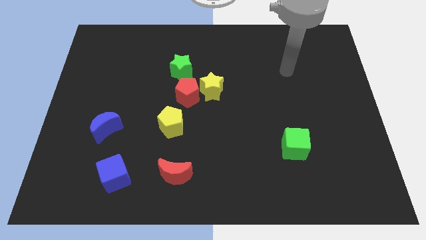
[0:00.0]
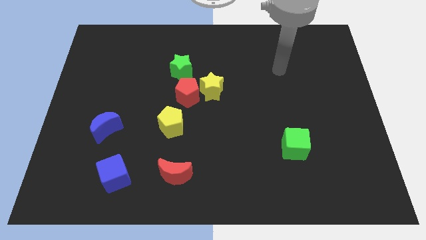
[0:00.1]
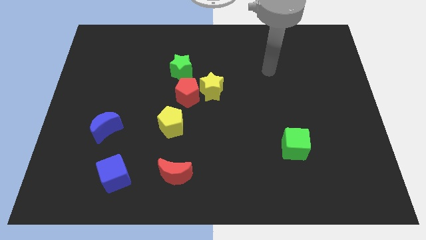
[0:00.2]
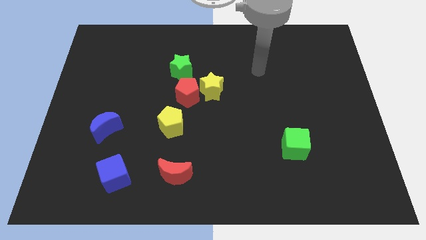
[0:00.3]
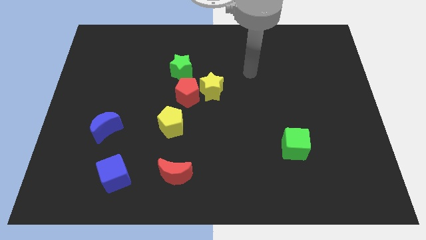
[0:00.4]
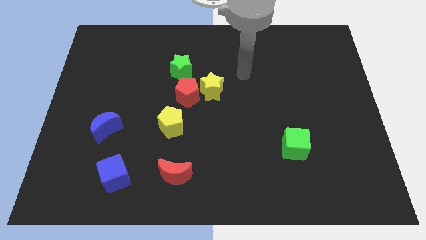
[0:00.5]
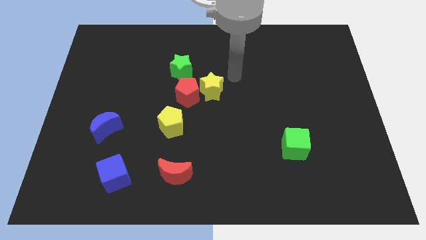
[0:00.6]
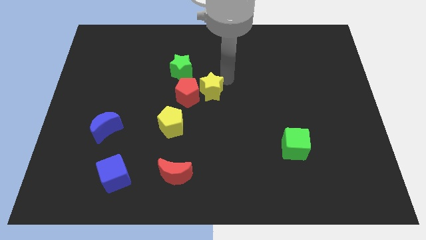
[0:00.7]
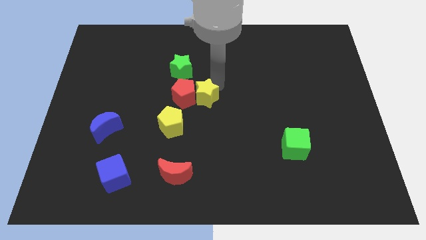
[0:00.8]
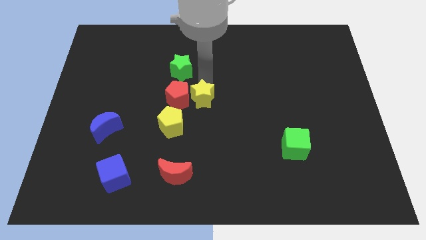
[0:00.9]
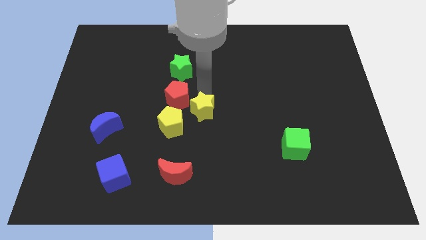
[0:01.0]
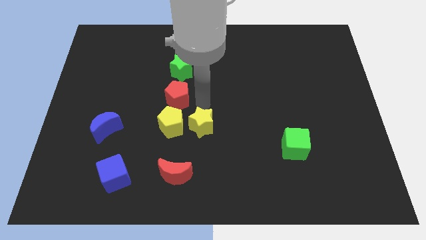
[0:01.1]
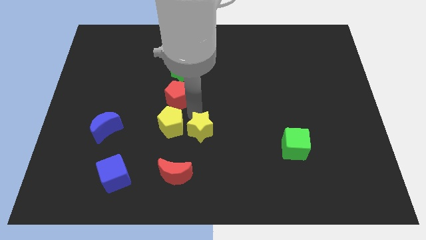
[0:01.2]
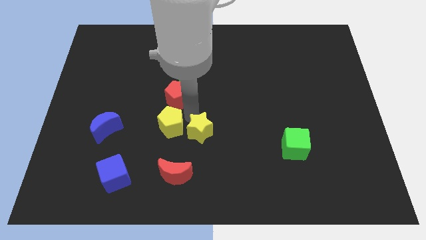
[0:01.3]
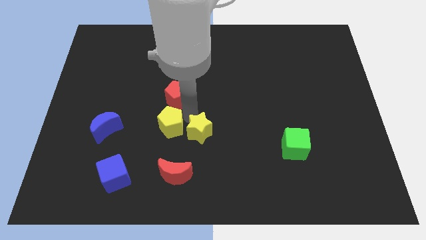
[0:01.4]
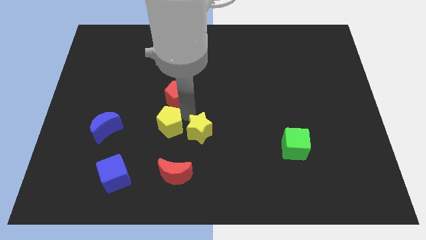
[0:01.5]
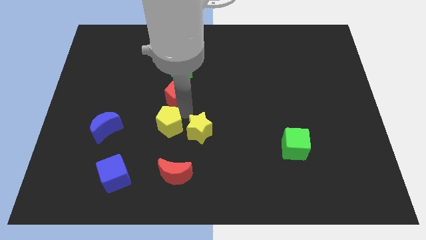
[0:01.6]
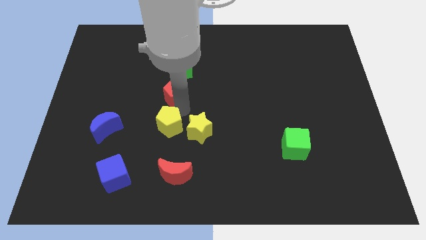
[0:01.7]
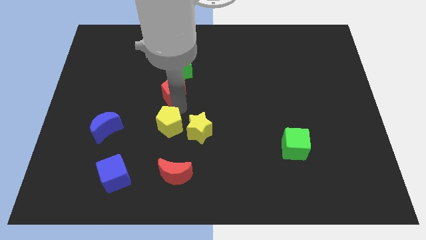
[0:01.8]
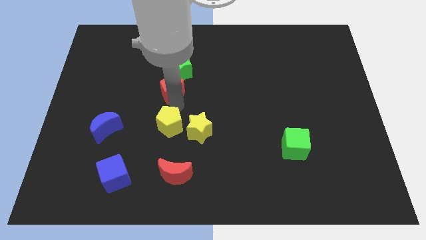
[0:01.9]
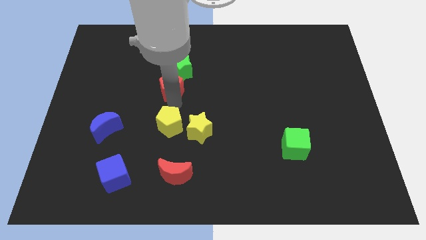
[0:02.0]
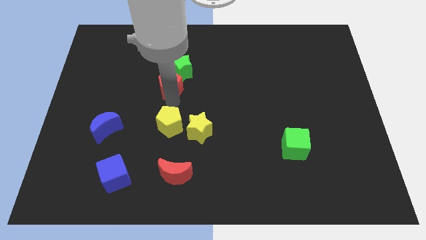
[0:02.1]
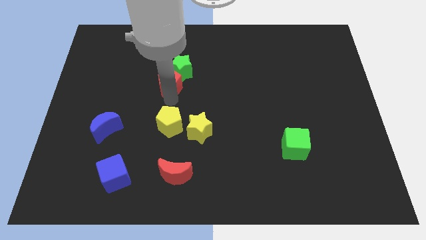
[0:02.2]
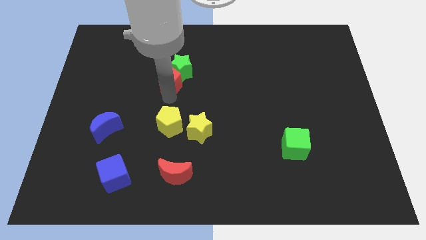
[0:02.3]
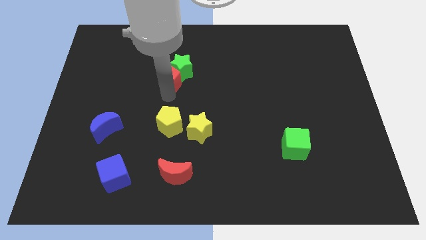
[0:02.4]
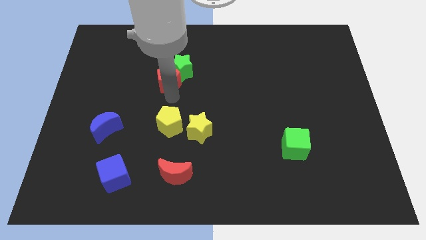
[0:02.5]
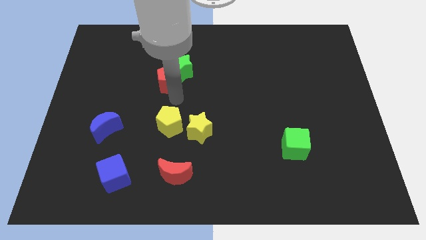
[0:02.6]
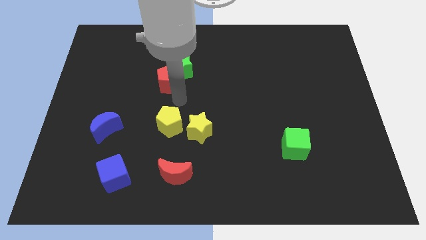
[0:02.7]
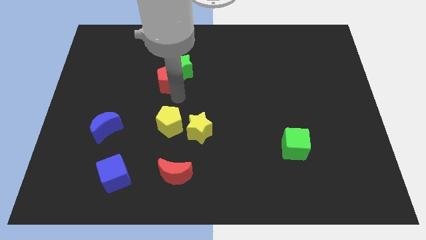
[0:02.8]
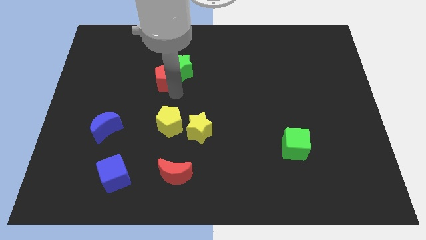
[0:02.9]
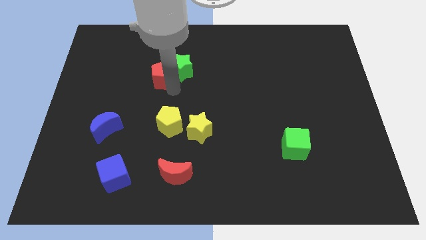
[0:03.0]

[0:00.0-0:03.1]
separate the red pentagon from the clump

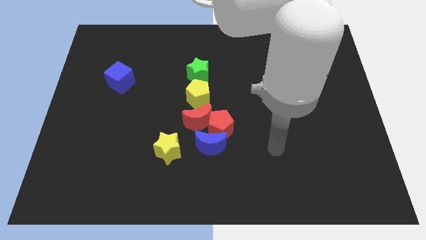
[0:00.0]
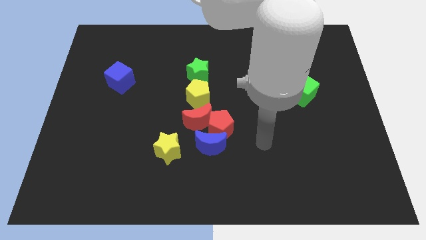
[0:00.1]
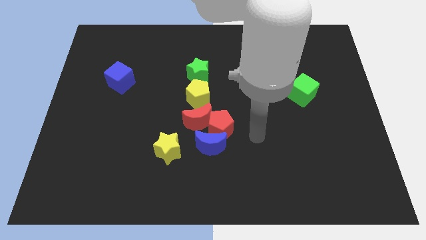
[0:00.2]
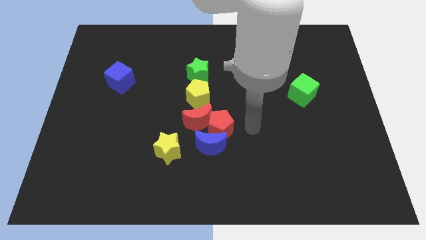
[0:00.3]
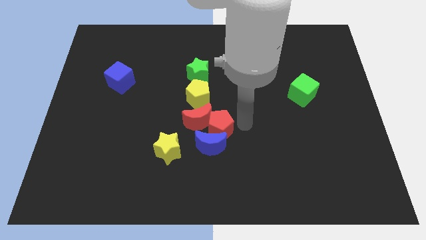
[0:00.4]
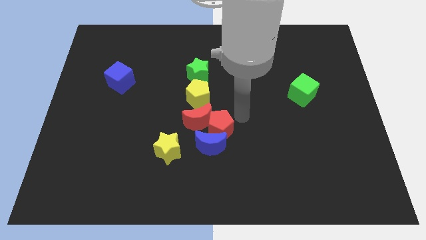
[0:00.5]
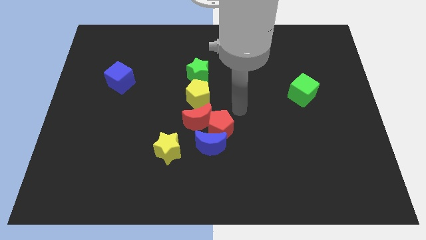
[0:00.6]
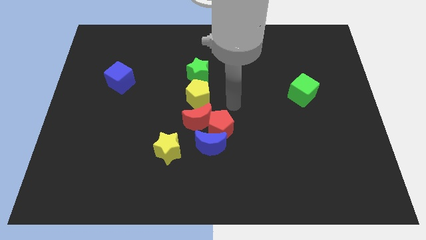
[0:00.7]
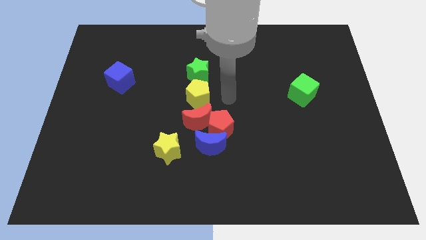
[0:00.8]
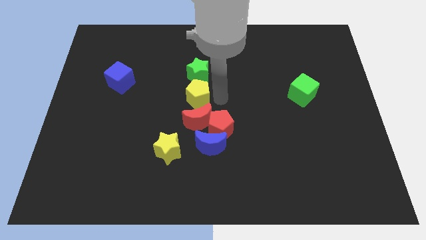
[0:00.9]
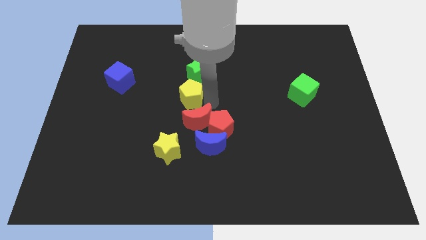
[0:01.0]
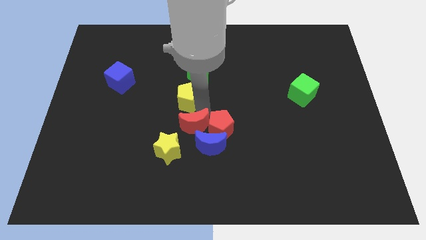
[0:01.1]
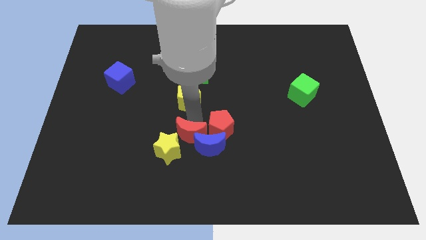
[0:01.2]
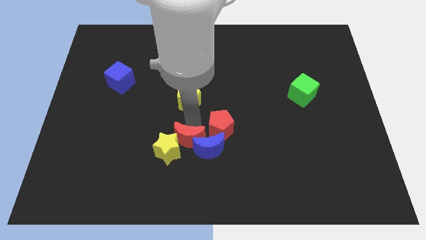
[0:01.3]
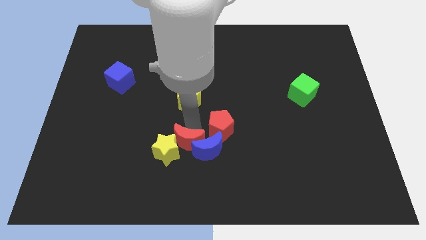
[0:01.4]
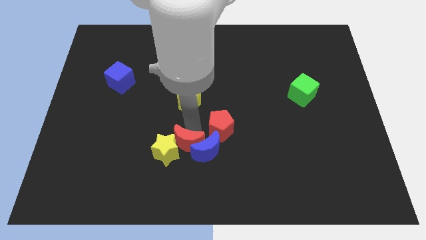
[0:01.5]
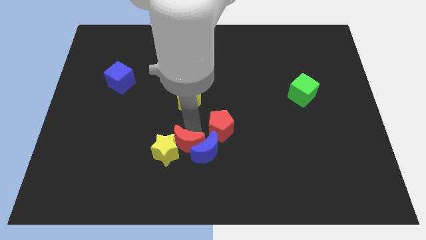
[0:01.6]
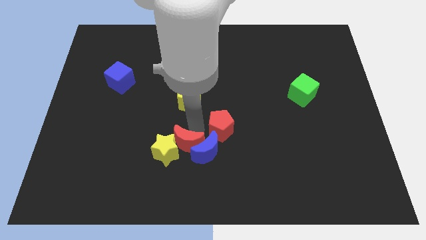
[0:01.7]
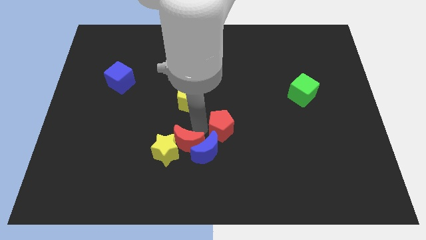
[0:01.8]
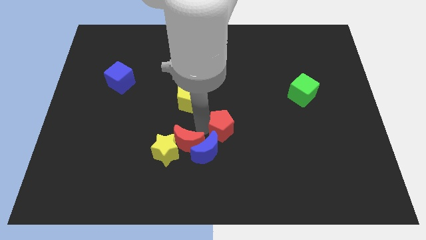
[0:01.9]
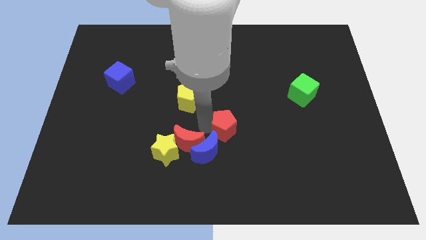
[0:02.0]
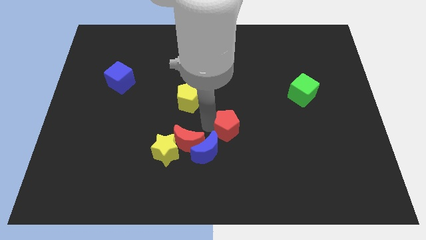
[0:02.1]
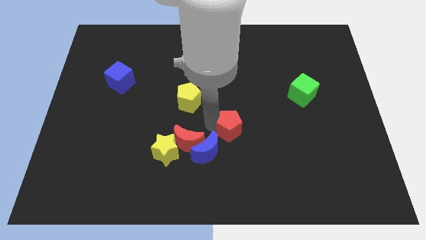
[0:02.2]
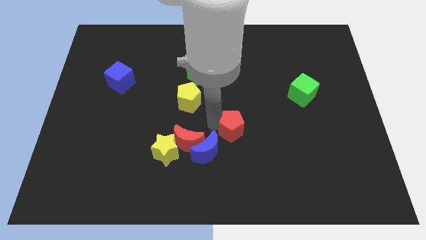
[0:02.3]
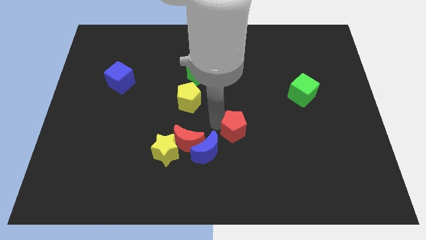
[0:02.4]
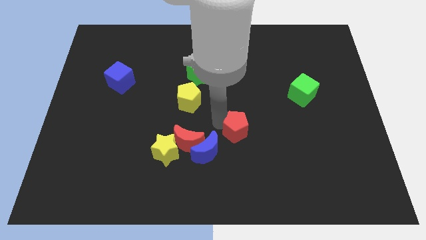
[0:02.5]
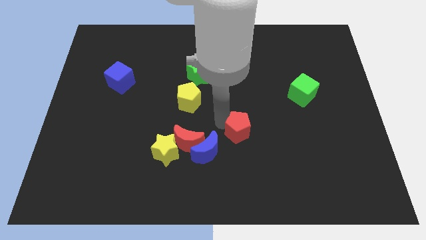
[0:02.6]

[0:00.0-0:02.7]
separate the red pentagon from the blue moon, red moon, and yellow pentagon

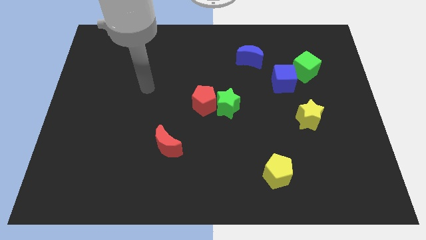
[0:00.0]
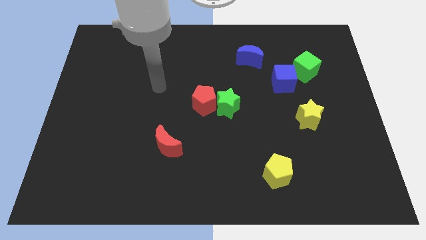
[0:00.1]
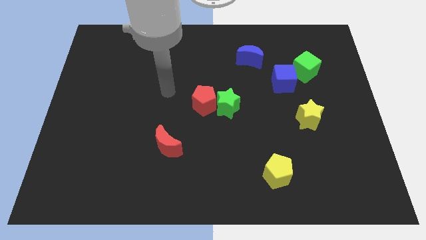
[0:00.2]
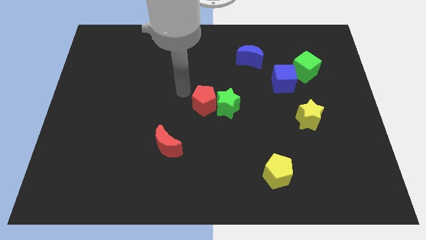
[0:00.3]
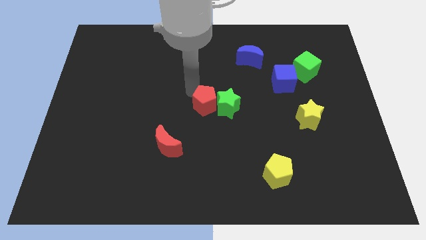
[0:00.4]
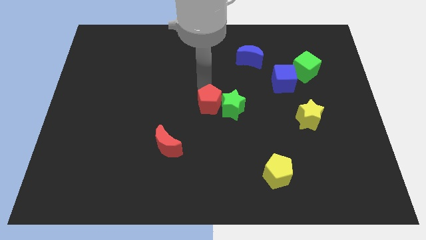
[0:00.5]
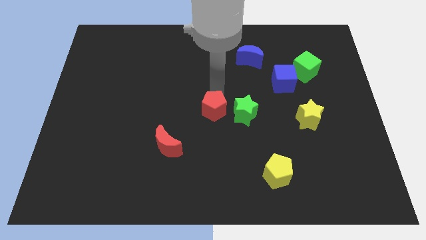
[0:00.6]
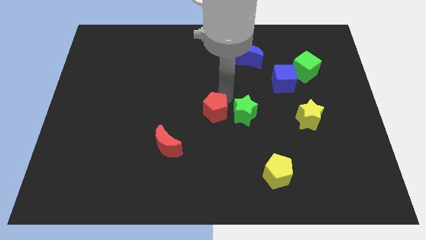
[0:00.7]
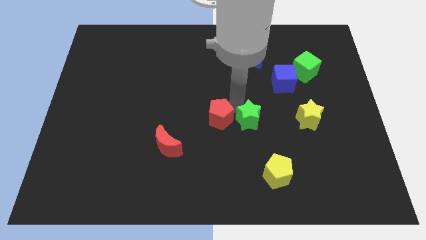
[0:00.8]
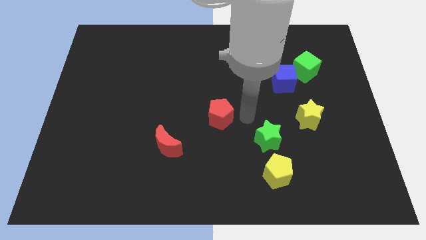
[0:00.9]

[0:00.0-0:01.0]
move the red pentagon away from the green star

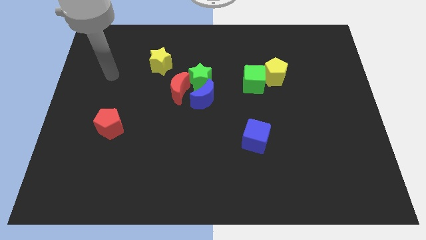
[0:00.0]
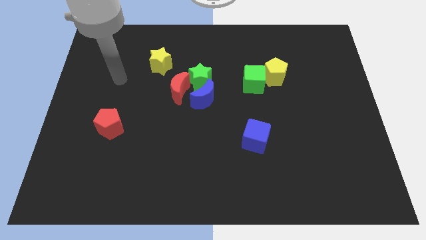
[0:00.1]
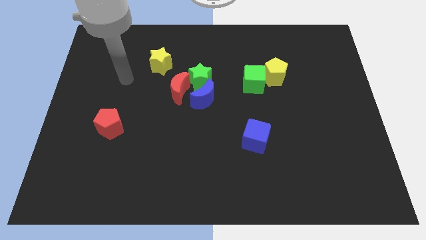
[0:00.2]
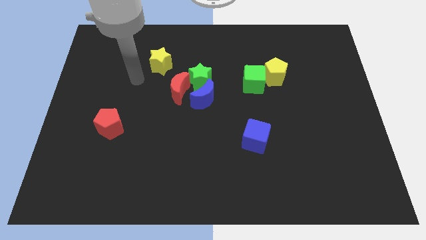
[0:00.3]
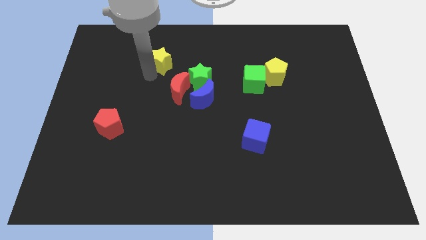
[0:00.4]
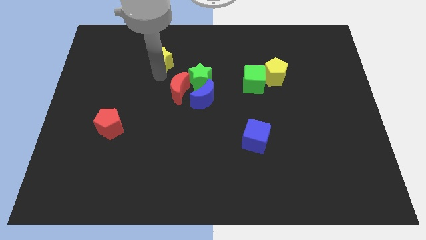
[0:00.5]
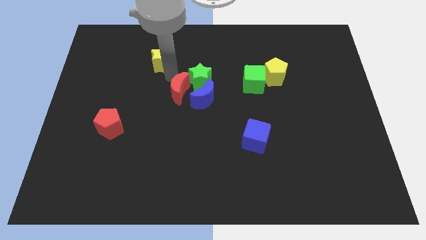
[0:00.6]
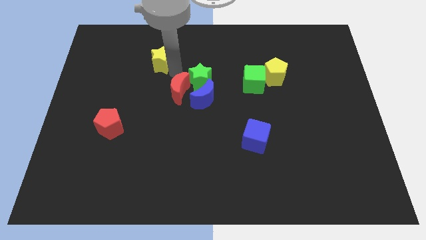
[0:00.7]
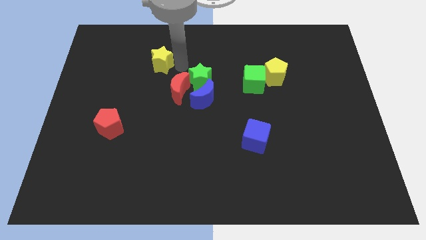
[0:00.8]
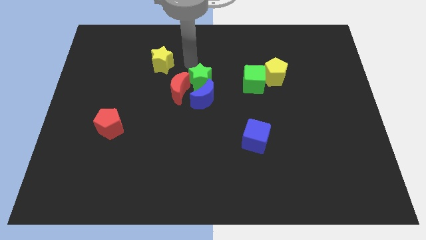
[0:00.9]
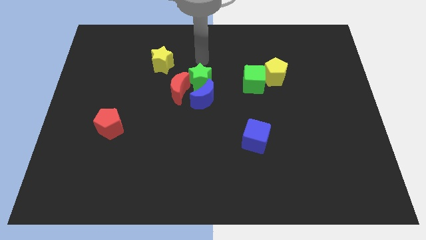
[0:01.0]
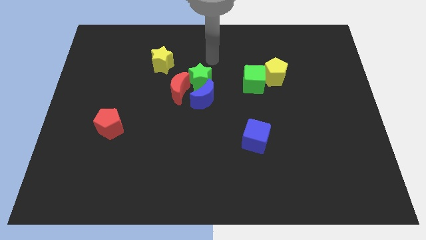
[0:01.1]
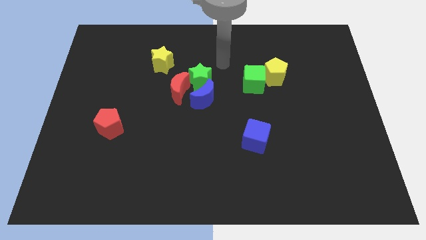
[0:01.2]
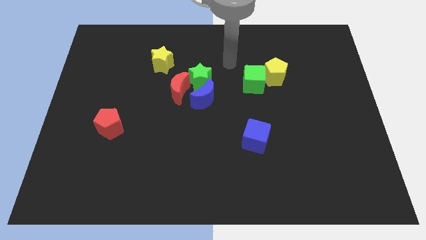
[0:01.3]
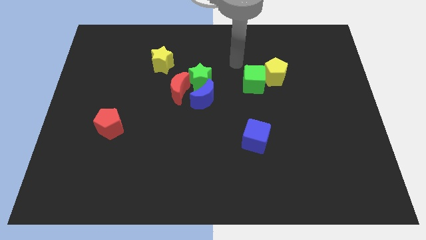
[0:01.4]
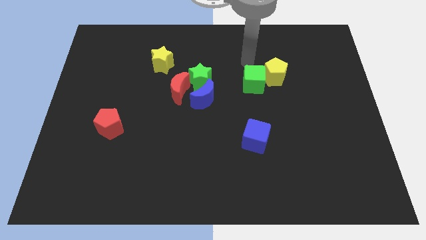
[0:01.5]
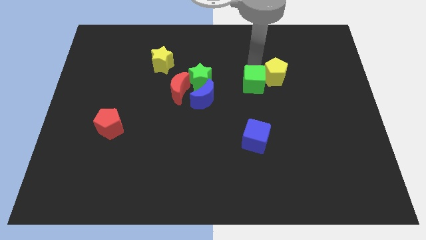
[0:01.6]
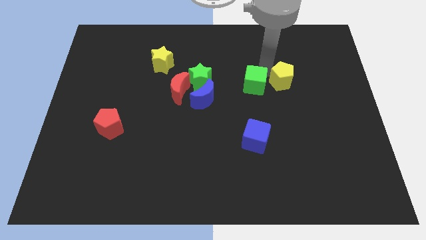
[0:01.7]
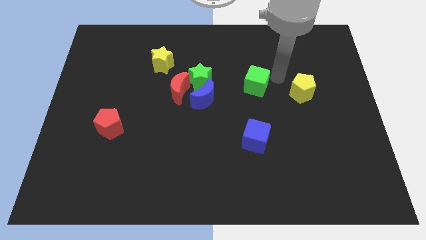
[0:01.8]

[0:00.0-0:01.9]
move the green cube away from the yellow pentagon

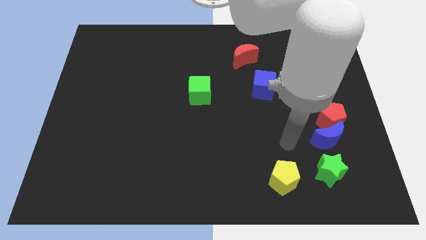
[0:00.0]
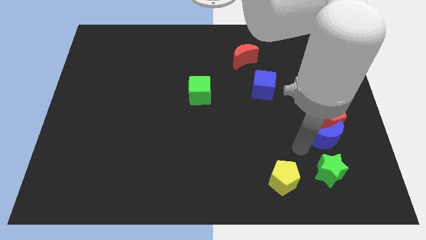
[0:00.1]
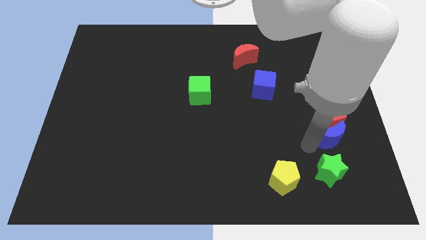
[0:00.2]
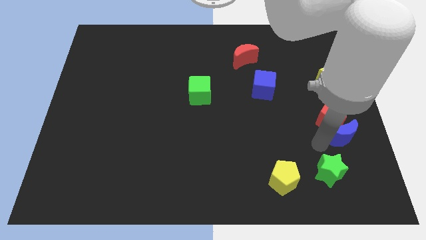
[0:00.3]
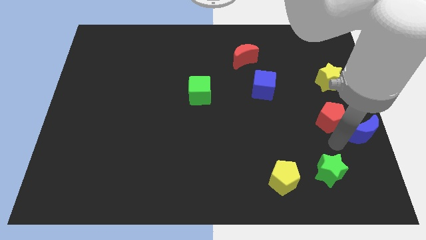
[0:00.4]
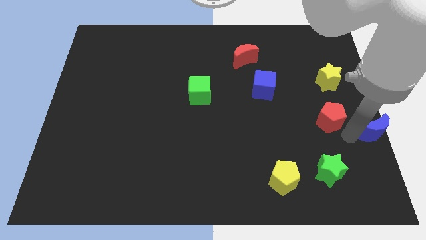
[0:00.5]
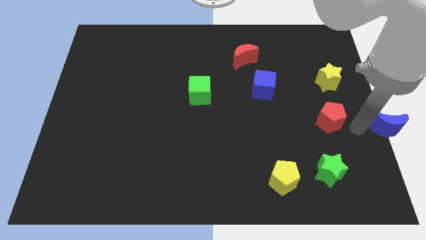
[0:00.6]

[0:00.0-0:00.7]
pull the red pentagon apart from the blue moon
